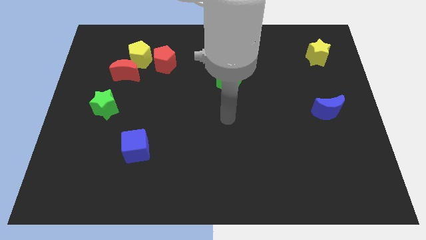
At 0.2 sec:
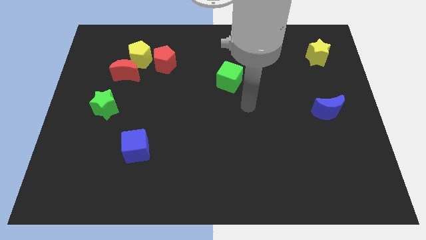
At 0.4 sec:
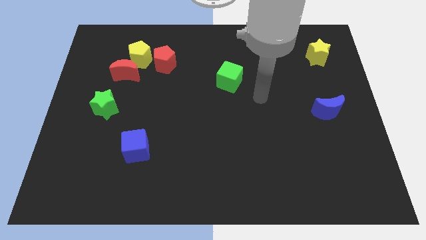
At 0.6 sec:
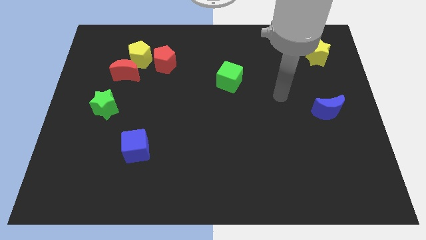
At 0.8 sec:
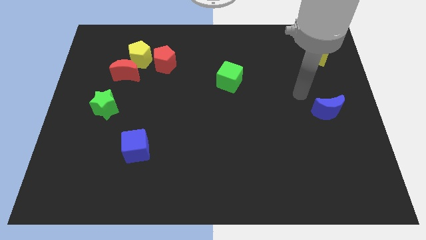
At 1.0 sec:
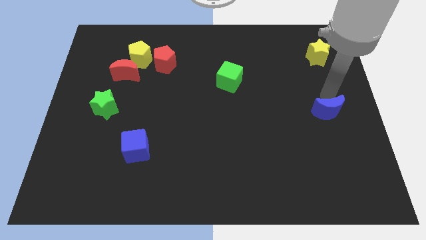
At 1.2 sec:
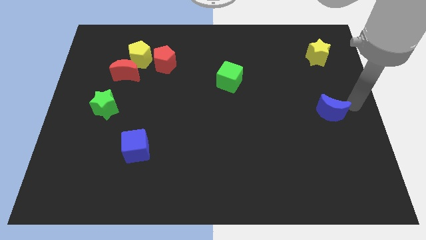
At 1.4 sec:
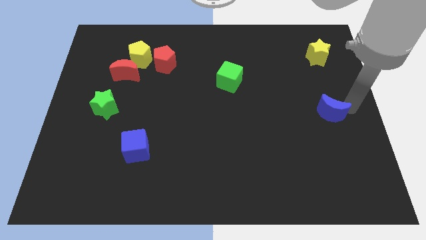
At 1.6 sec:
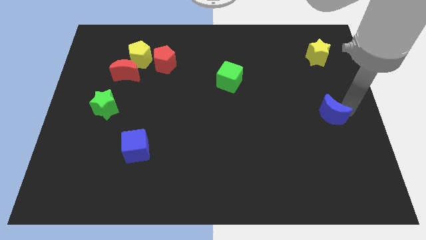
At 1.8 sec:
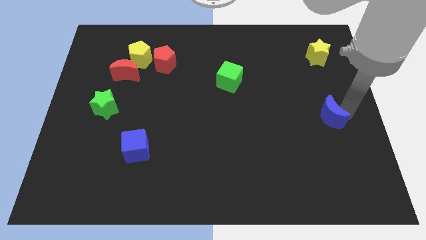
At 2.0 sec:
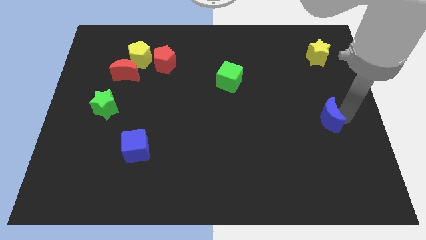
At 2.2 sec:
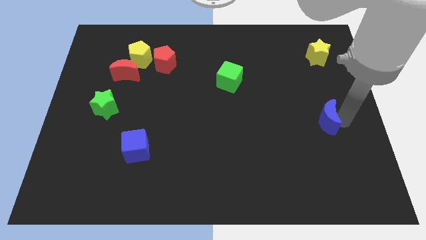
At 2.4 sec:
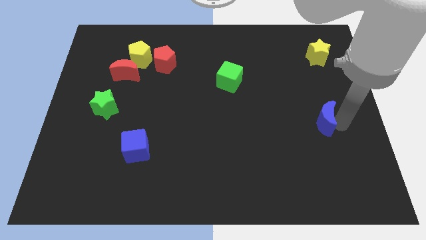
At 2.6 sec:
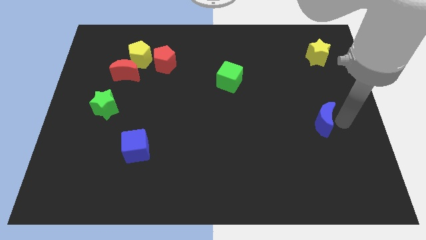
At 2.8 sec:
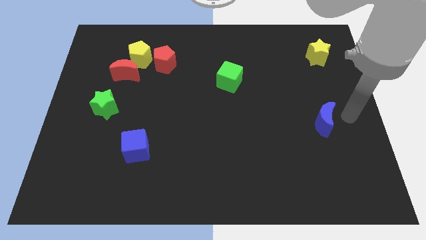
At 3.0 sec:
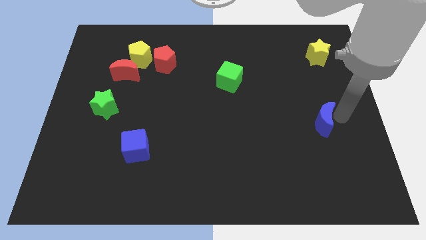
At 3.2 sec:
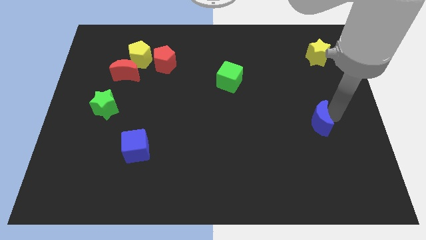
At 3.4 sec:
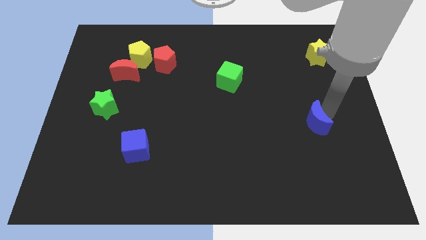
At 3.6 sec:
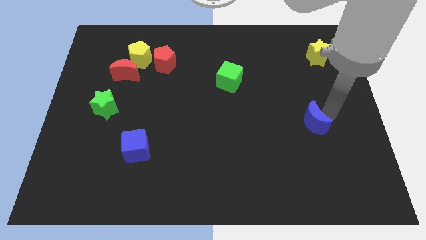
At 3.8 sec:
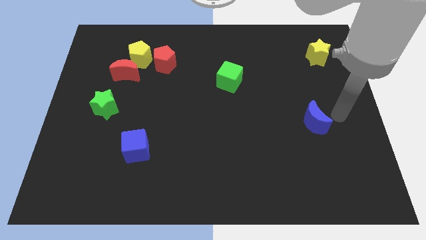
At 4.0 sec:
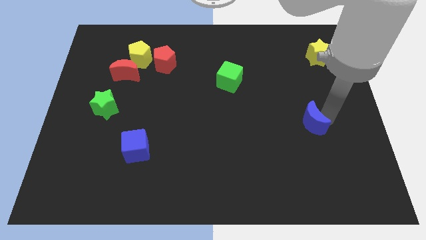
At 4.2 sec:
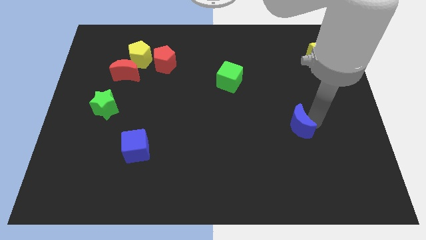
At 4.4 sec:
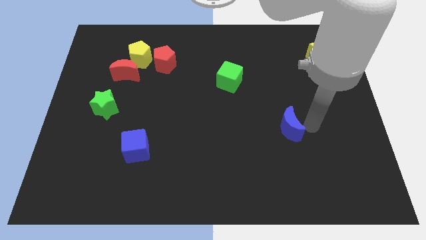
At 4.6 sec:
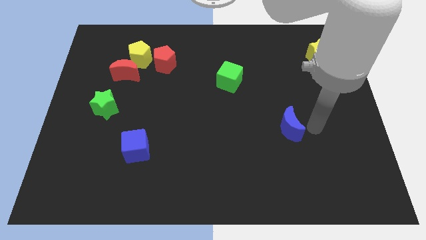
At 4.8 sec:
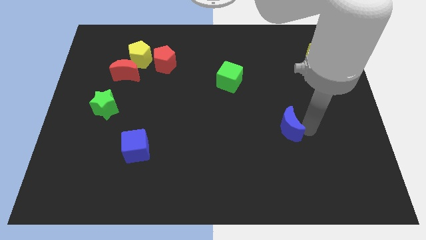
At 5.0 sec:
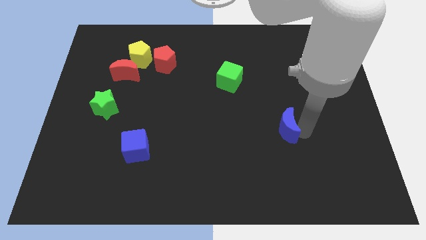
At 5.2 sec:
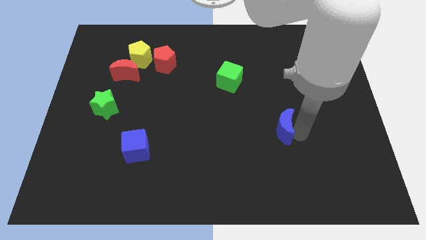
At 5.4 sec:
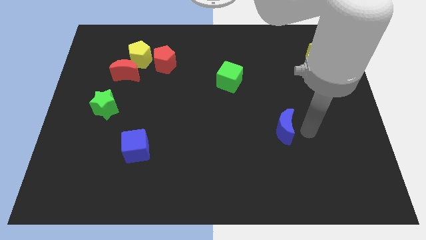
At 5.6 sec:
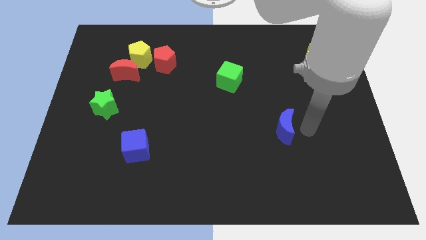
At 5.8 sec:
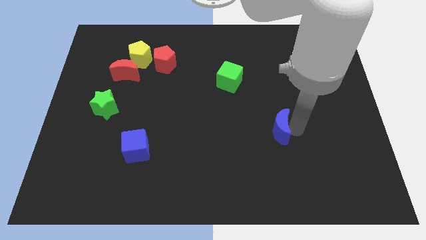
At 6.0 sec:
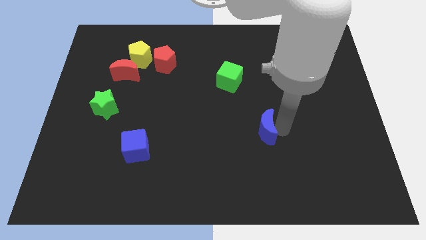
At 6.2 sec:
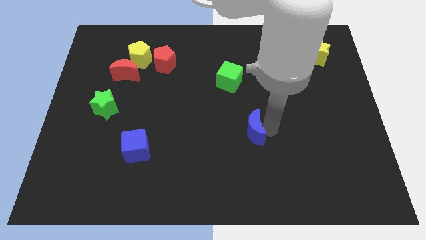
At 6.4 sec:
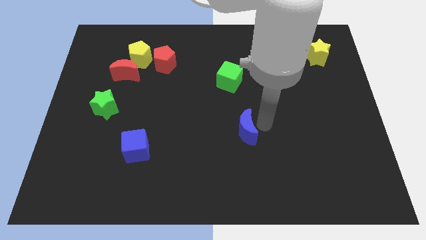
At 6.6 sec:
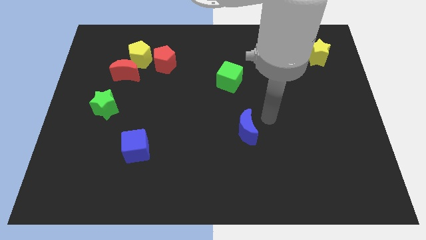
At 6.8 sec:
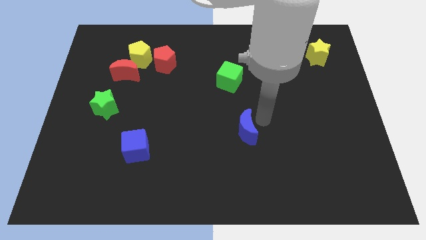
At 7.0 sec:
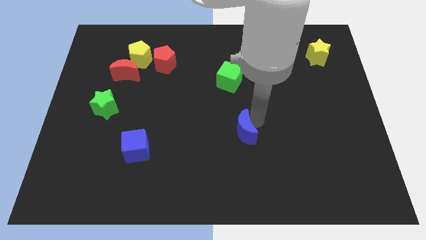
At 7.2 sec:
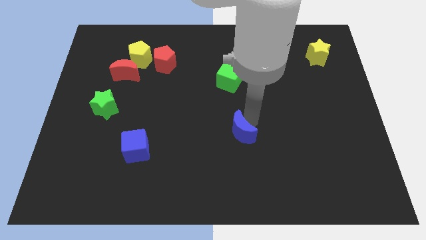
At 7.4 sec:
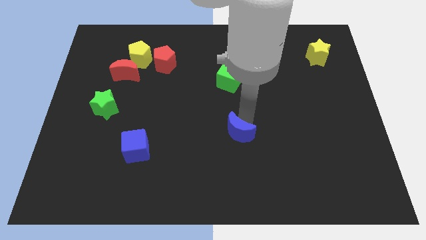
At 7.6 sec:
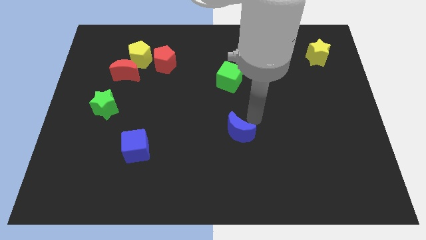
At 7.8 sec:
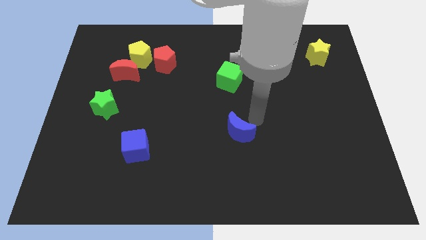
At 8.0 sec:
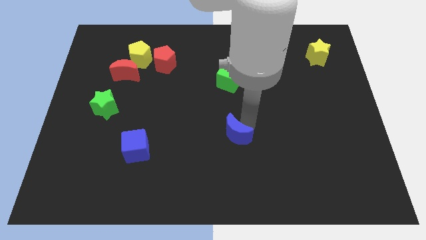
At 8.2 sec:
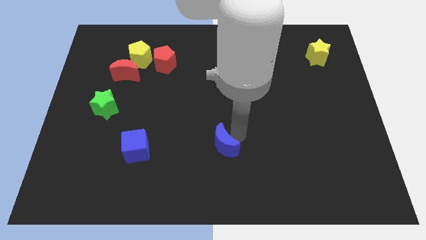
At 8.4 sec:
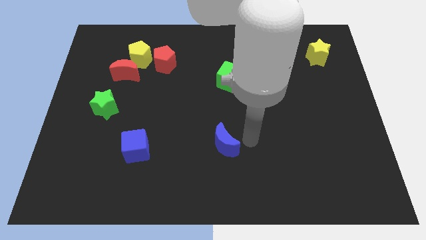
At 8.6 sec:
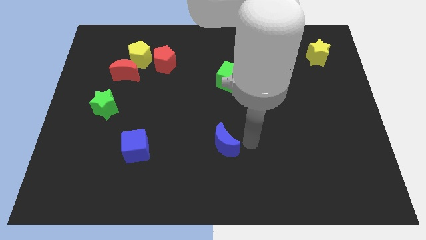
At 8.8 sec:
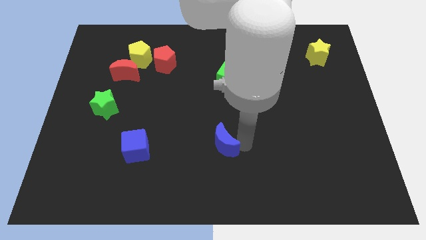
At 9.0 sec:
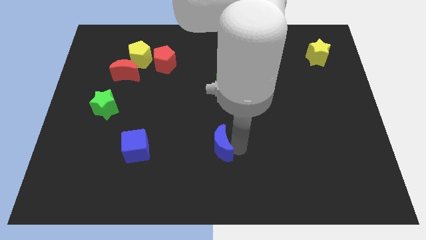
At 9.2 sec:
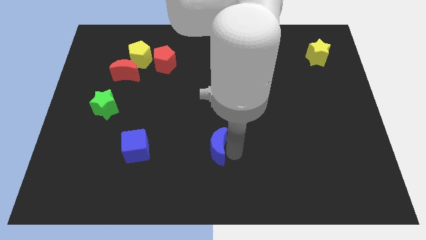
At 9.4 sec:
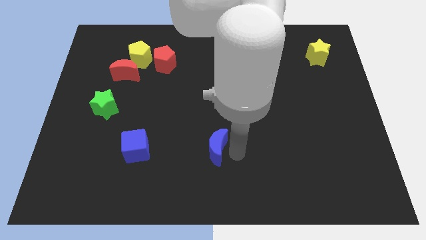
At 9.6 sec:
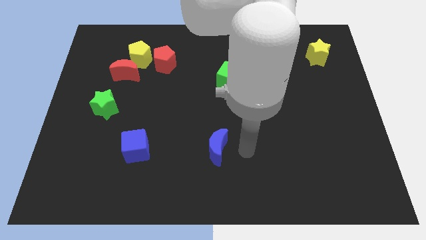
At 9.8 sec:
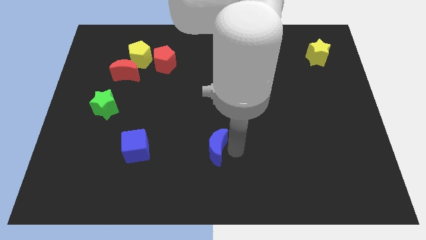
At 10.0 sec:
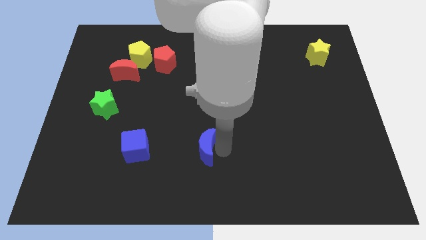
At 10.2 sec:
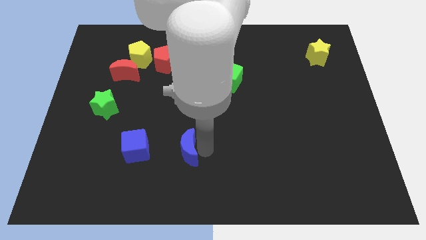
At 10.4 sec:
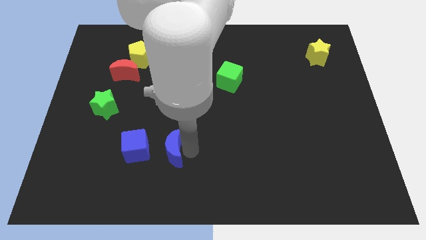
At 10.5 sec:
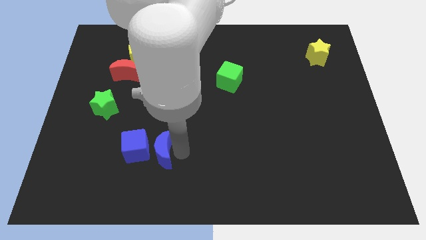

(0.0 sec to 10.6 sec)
slide the blue moon next to the blue cube

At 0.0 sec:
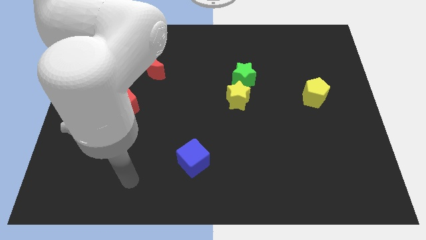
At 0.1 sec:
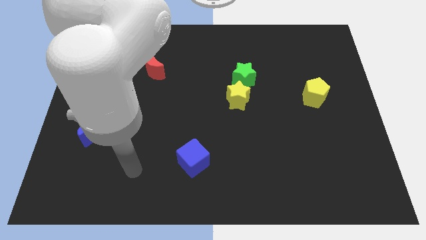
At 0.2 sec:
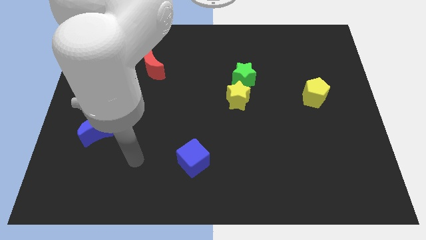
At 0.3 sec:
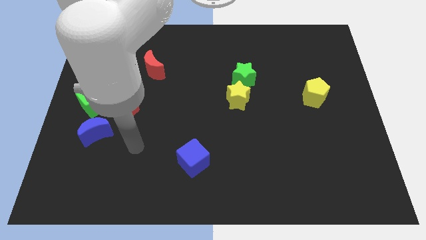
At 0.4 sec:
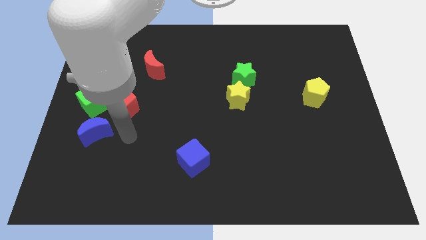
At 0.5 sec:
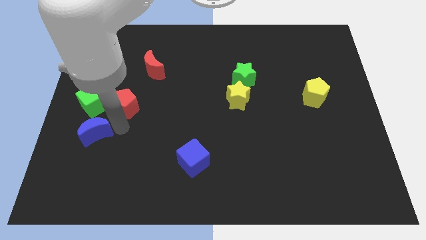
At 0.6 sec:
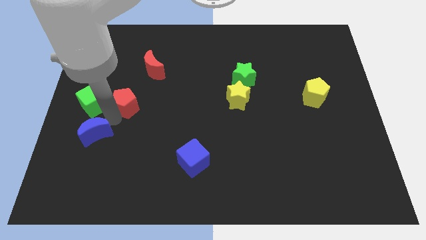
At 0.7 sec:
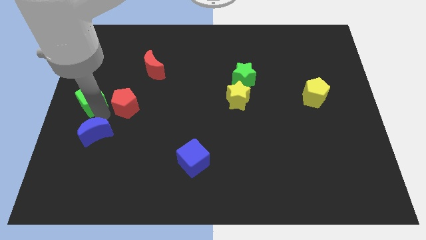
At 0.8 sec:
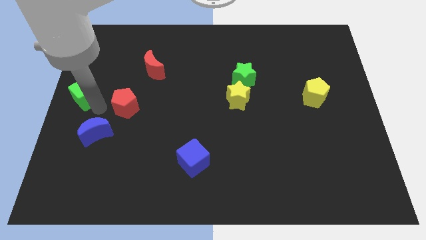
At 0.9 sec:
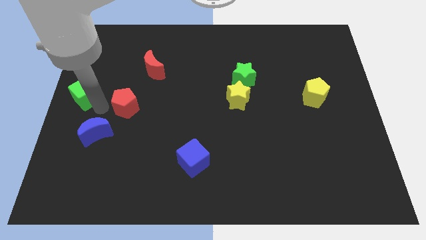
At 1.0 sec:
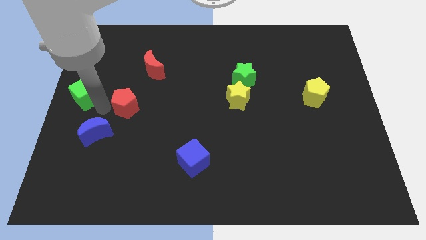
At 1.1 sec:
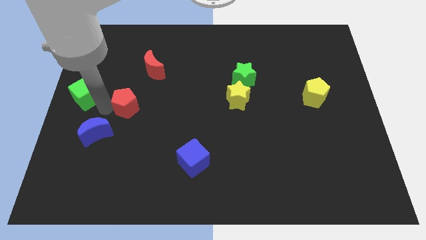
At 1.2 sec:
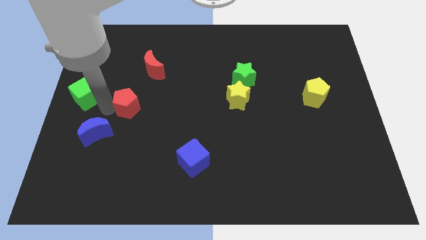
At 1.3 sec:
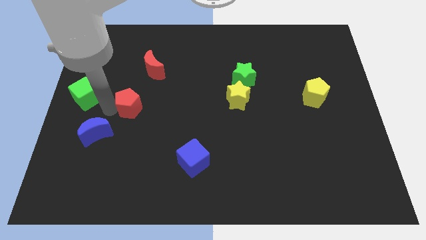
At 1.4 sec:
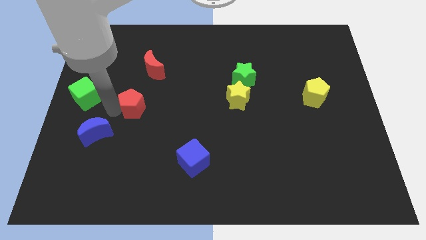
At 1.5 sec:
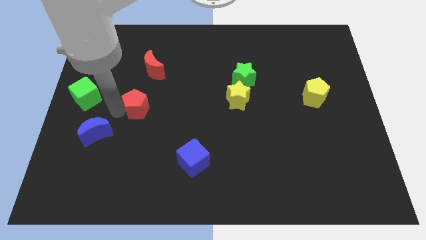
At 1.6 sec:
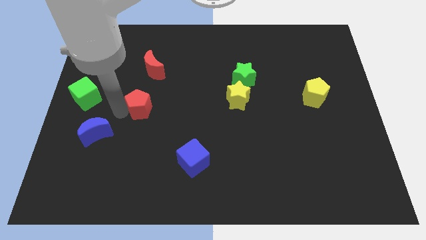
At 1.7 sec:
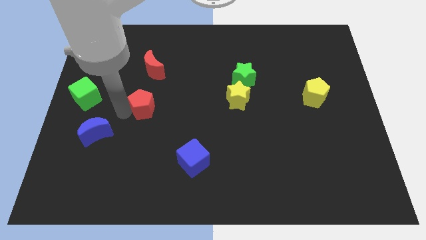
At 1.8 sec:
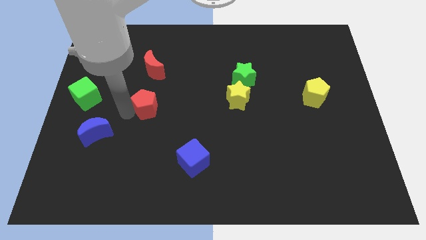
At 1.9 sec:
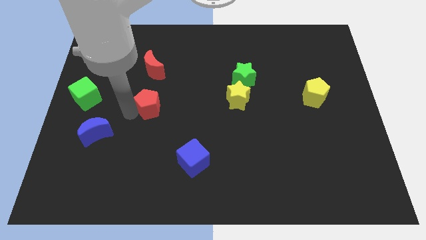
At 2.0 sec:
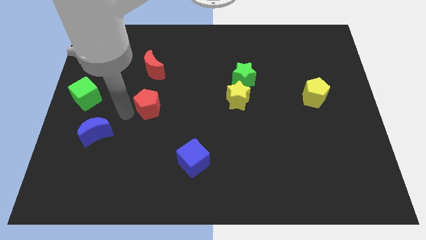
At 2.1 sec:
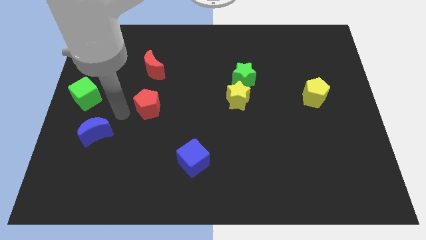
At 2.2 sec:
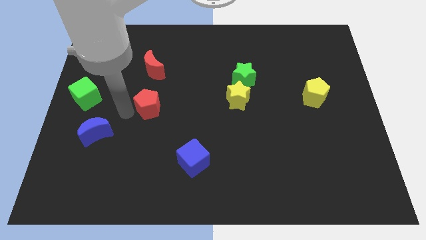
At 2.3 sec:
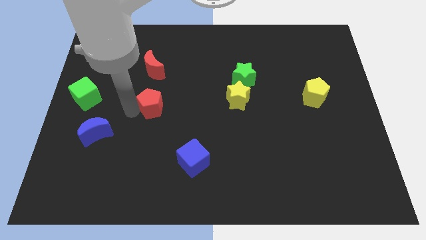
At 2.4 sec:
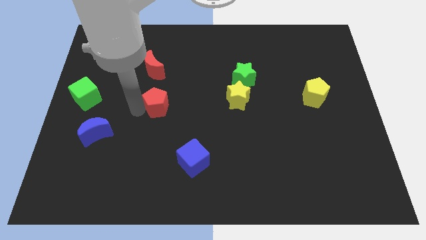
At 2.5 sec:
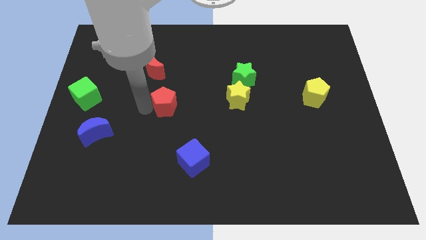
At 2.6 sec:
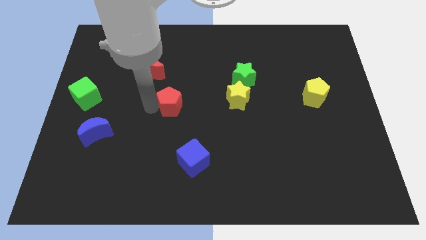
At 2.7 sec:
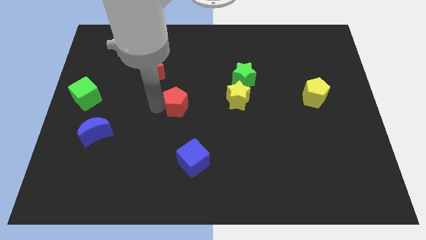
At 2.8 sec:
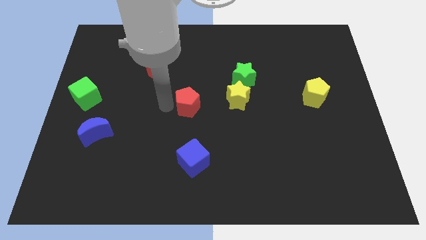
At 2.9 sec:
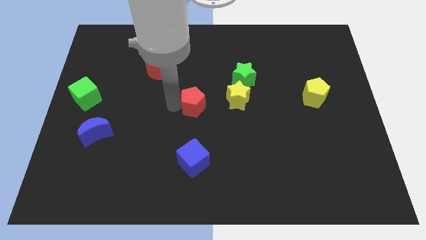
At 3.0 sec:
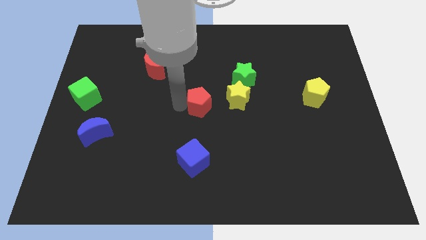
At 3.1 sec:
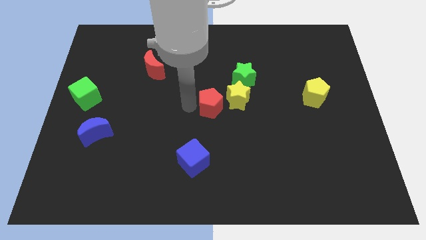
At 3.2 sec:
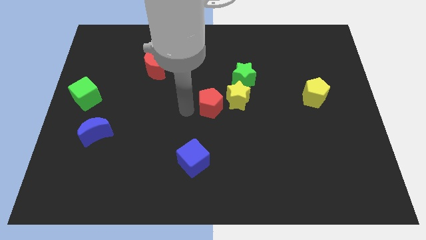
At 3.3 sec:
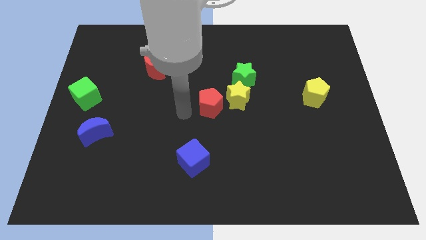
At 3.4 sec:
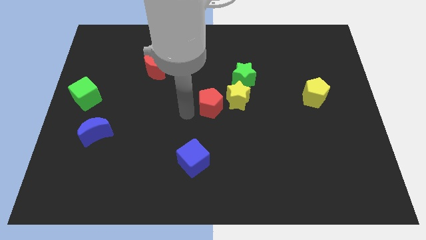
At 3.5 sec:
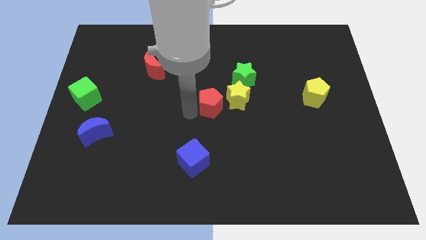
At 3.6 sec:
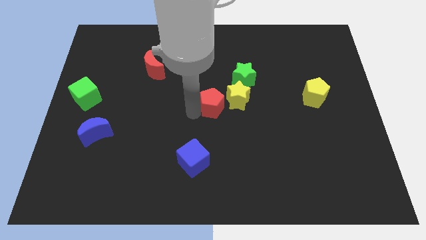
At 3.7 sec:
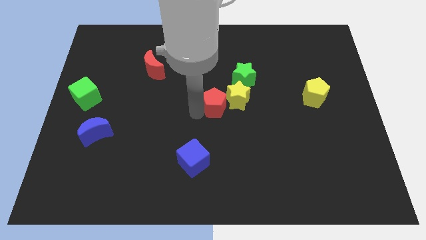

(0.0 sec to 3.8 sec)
move the red pentagon to the yellow star
